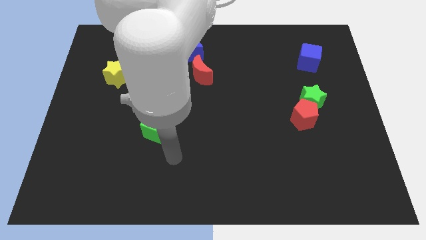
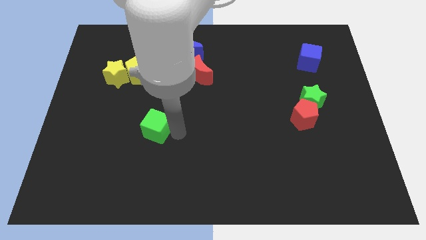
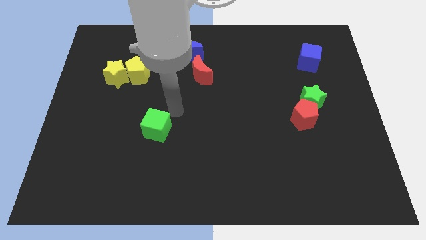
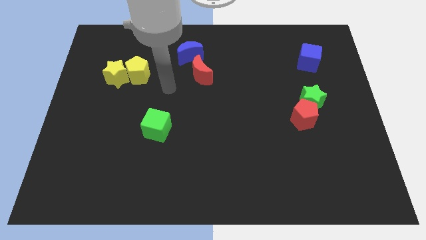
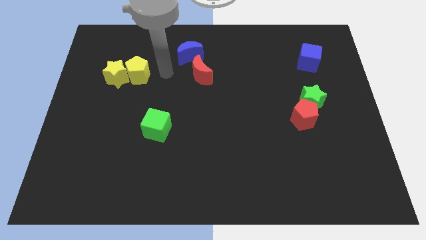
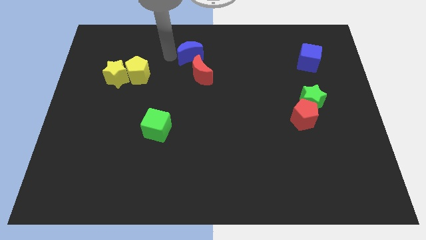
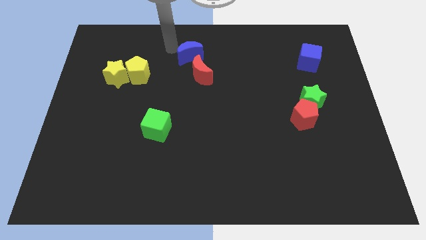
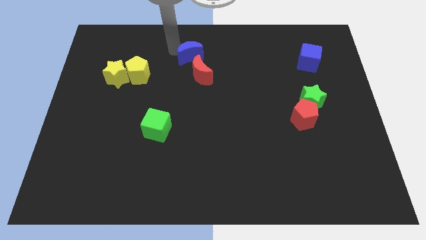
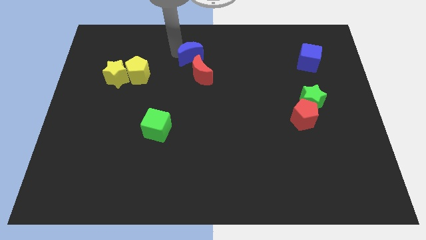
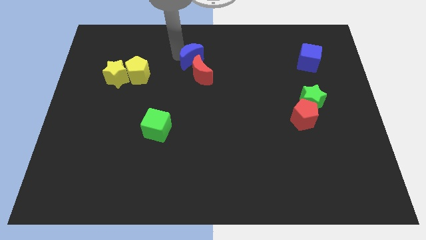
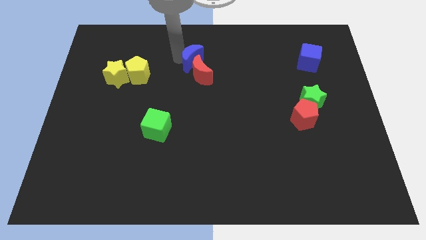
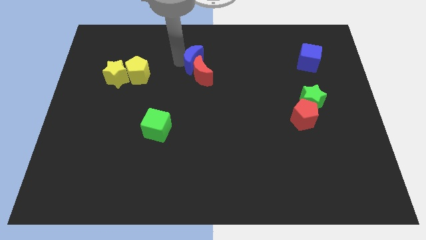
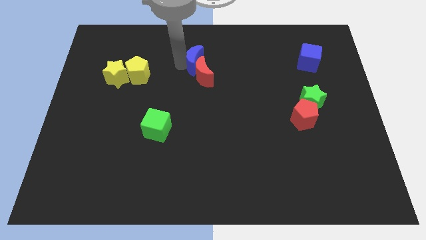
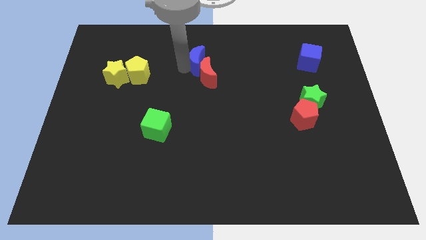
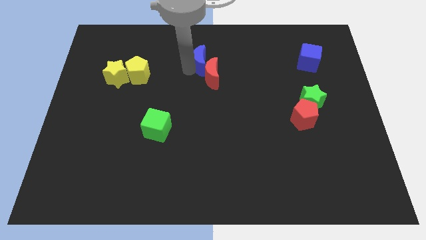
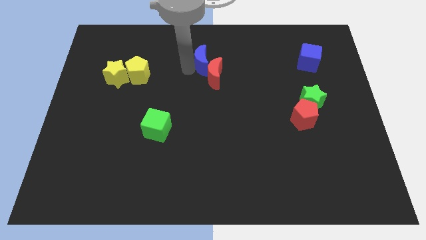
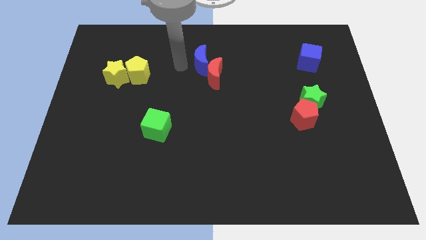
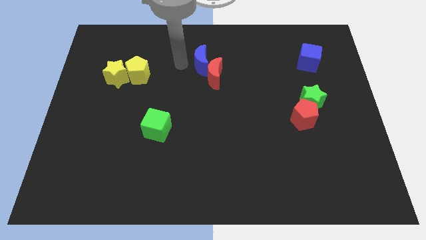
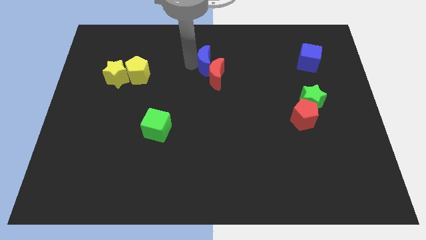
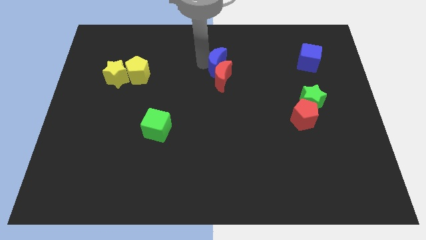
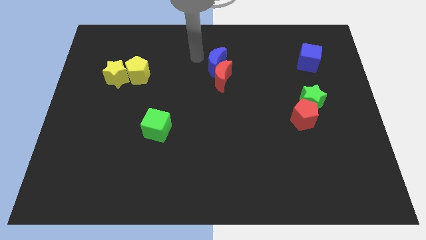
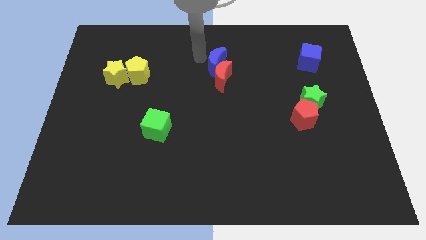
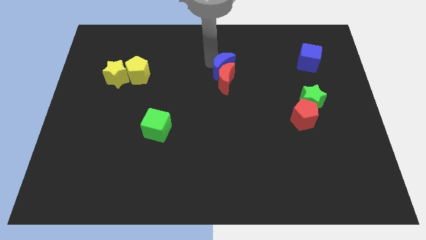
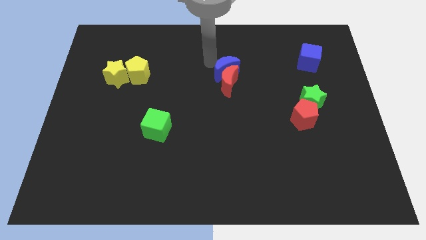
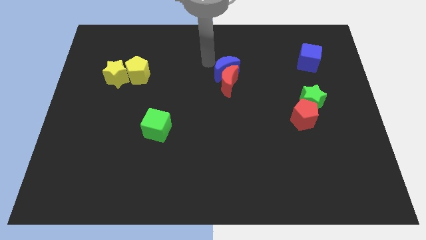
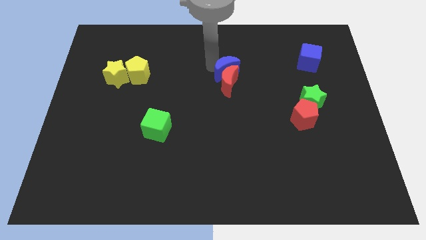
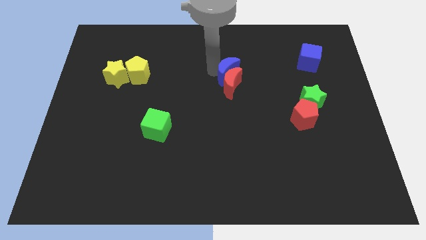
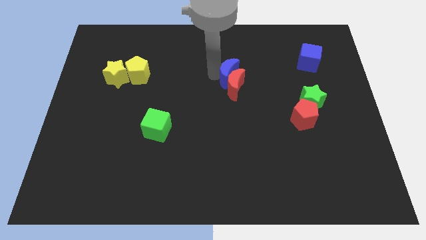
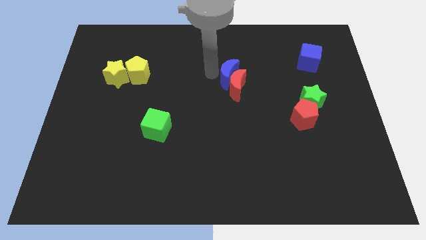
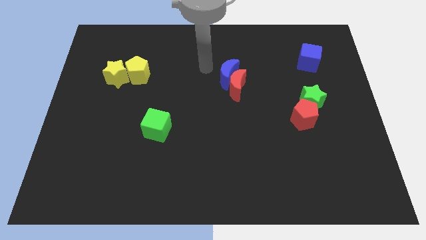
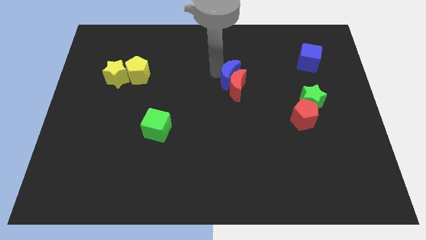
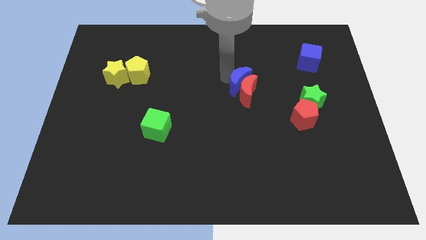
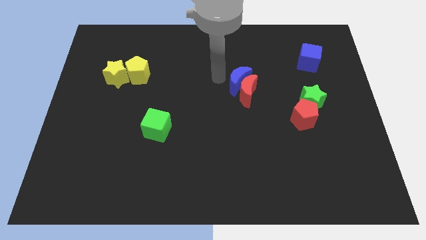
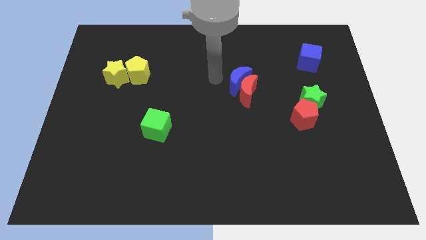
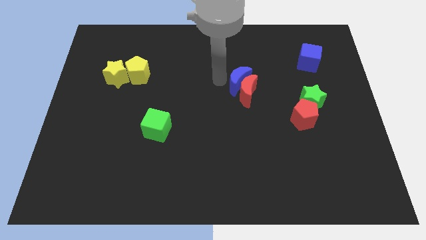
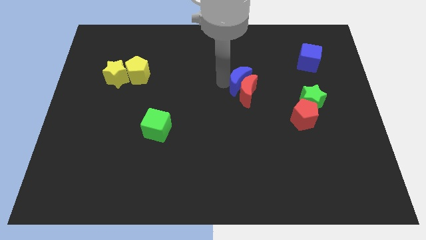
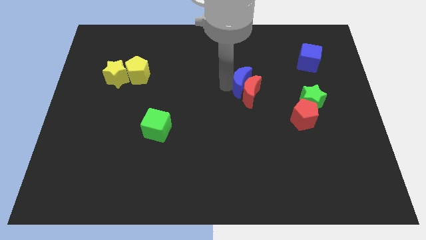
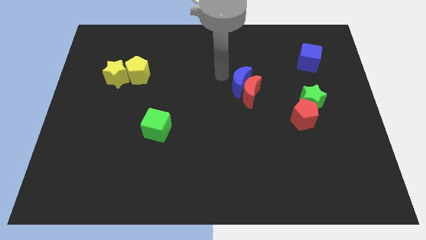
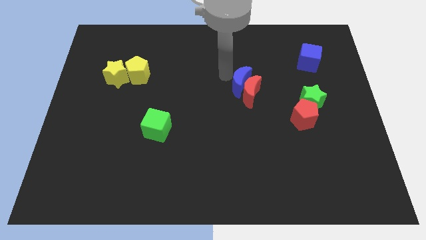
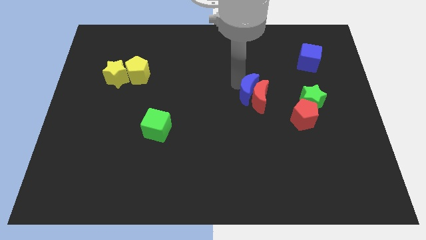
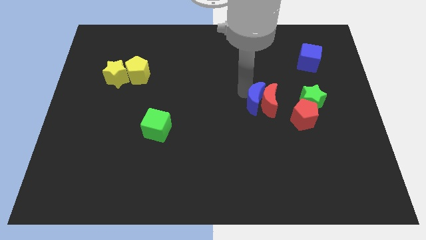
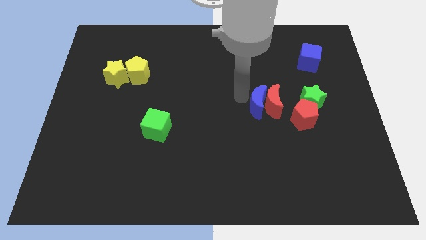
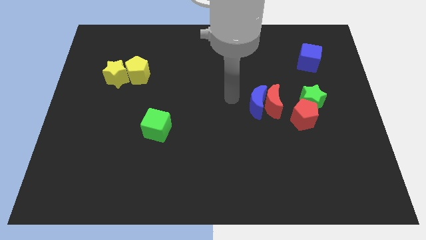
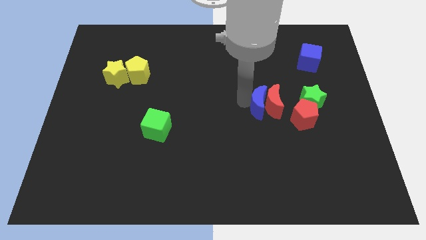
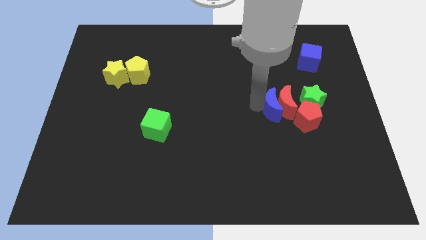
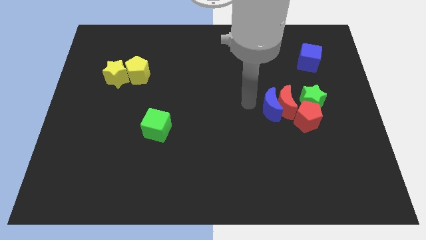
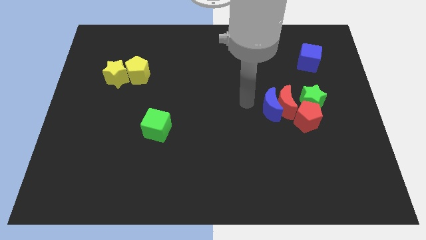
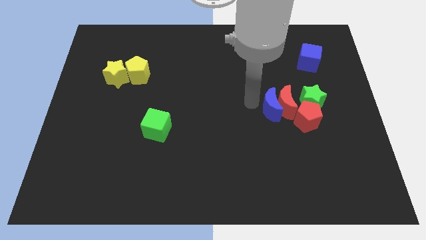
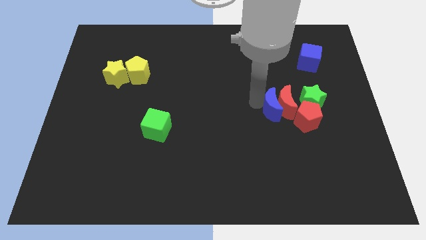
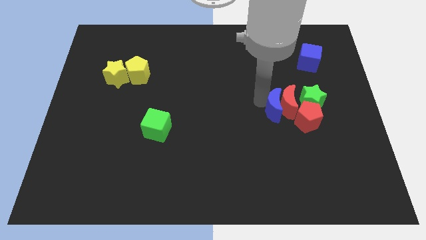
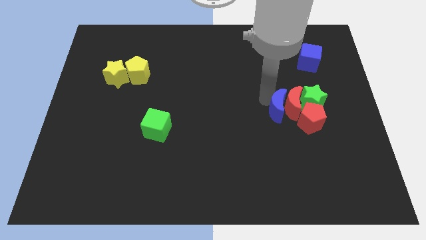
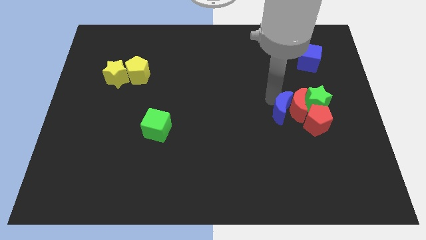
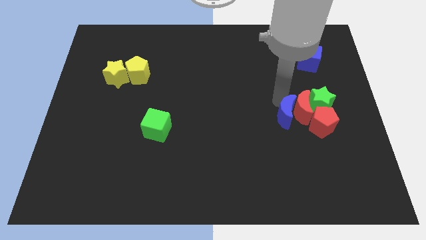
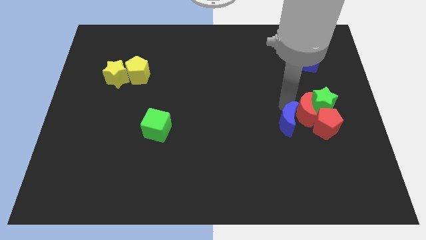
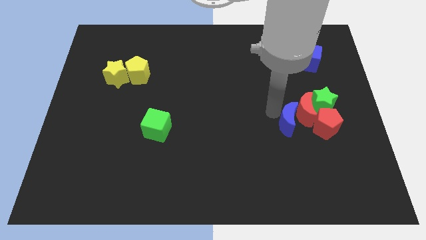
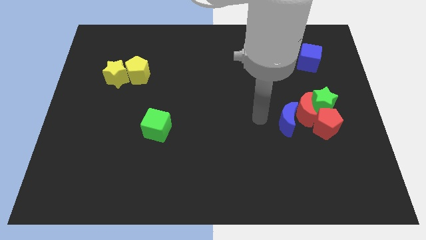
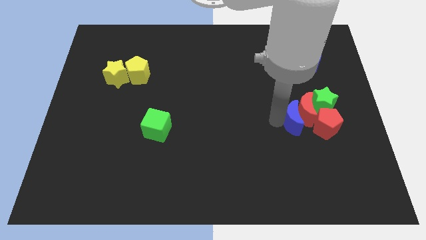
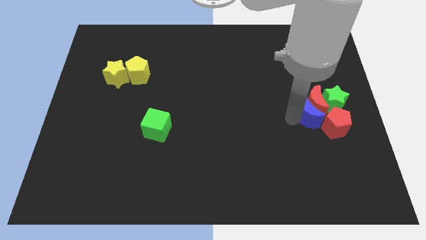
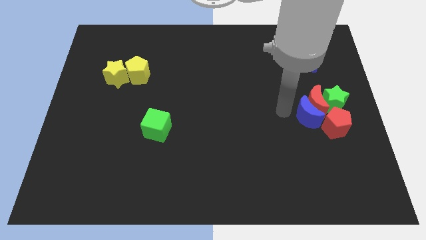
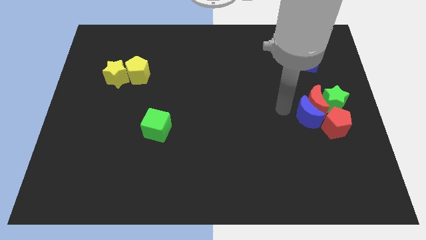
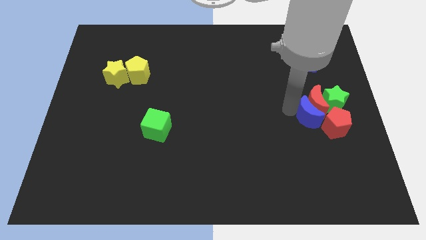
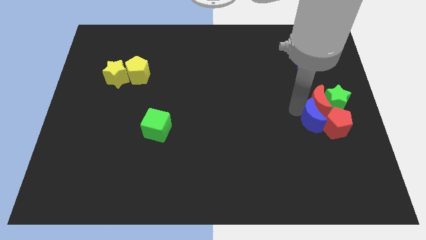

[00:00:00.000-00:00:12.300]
slide the blue moon close to the red pentagon

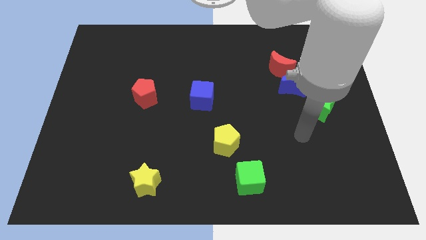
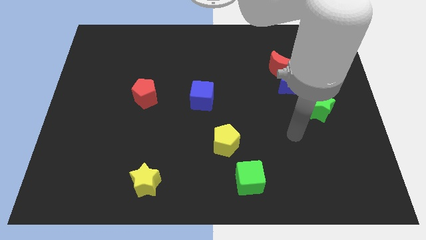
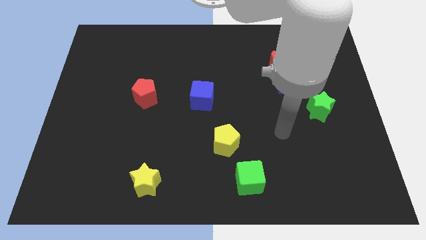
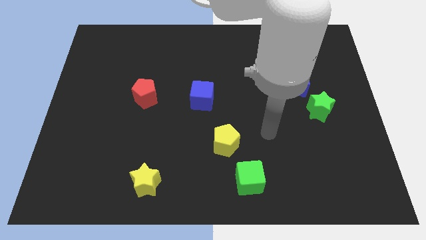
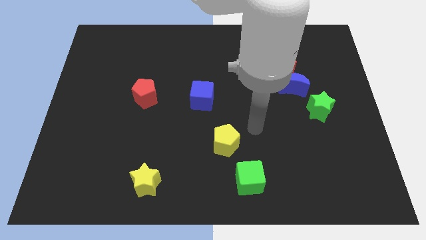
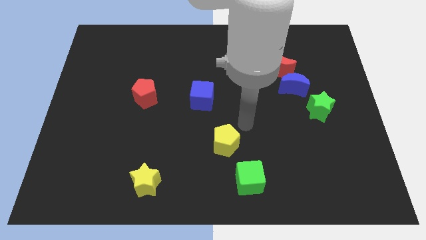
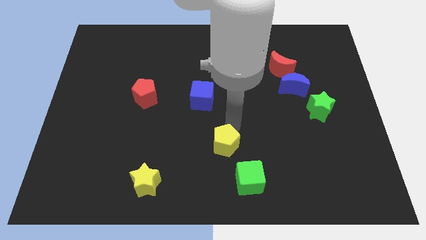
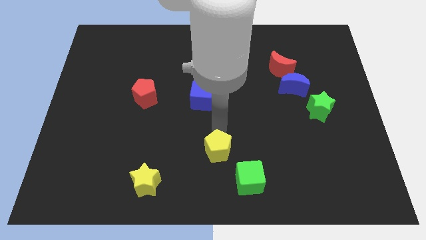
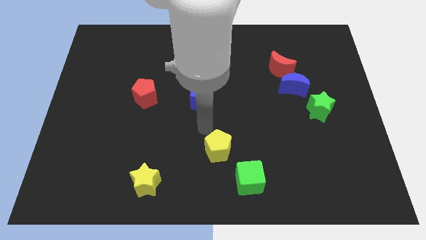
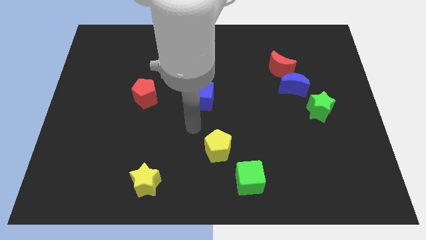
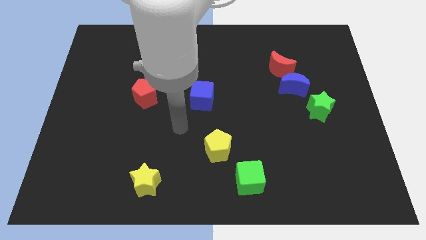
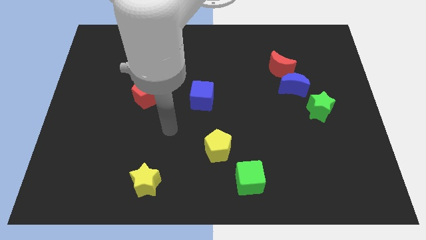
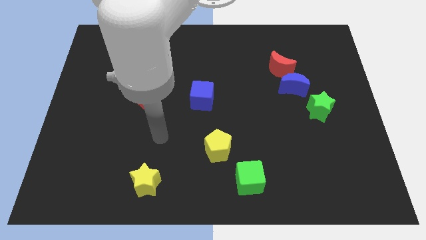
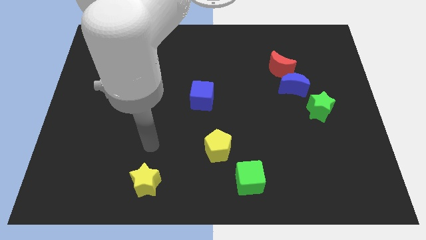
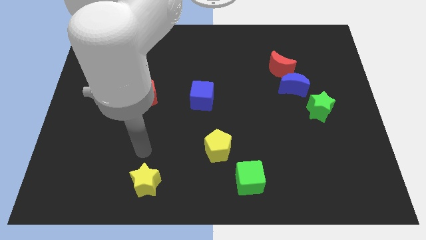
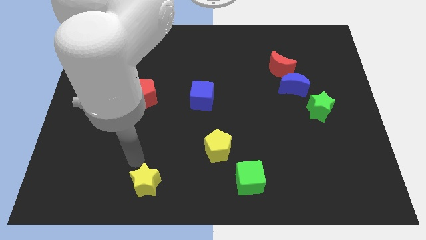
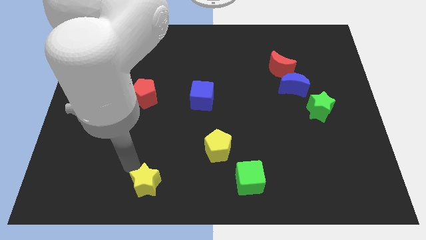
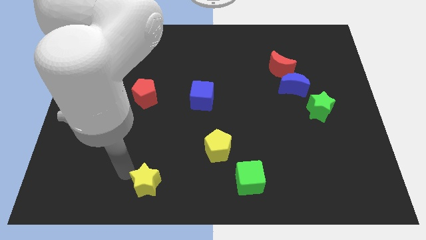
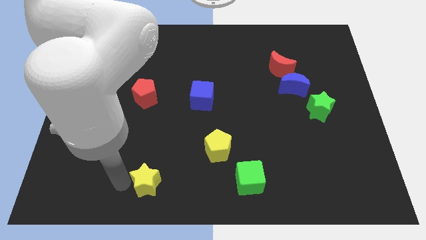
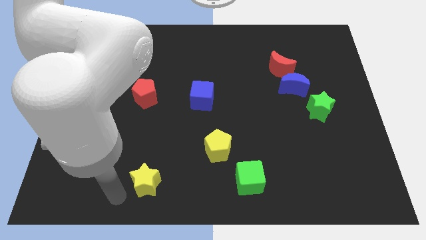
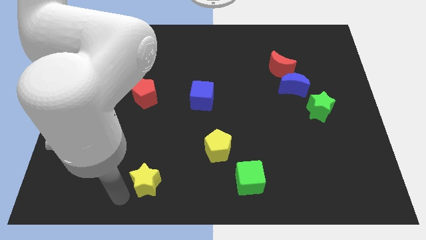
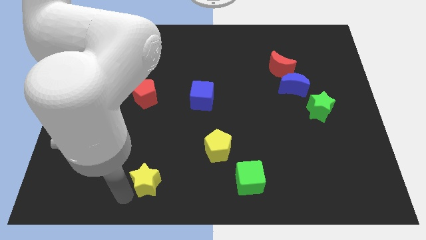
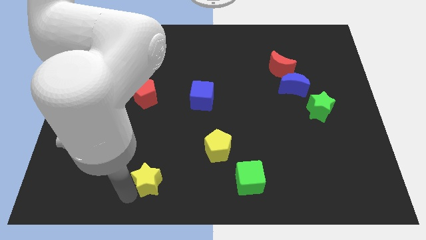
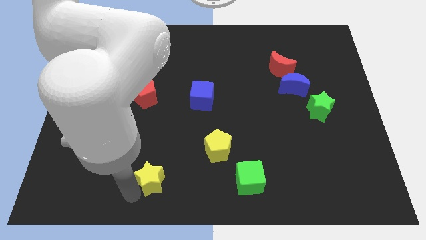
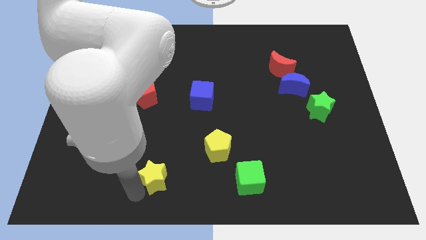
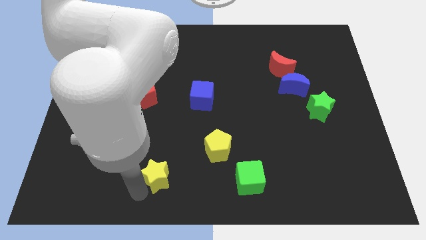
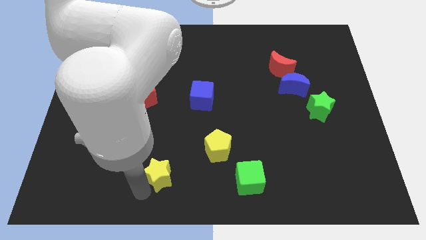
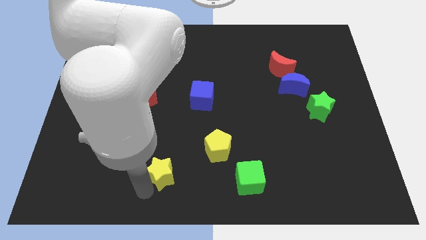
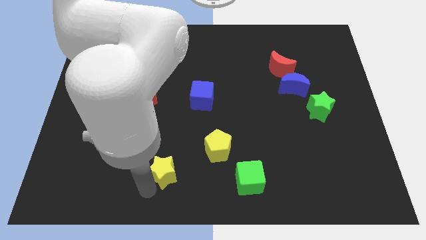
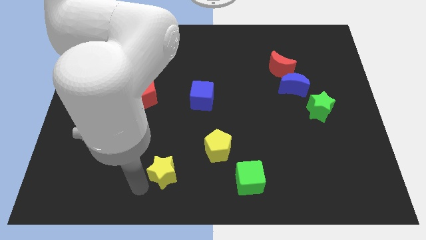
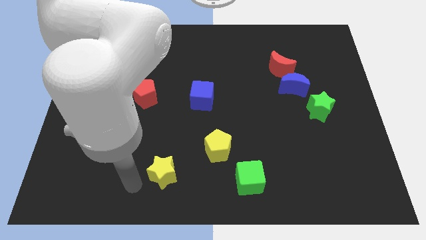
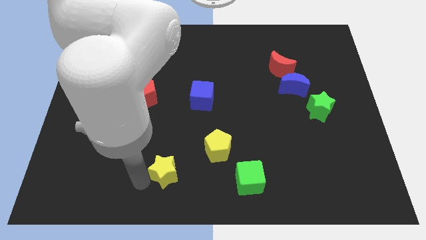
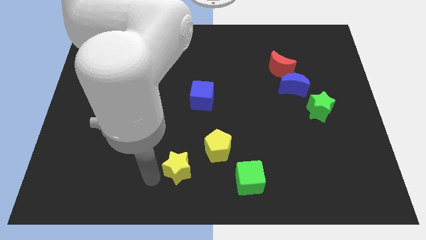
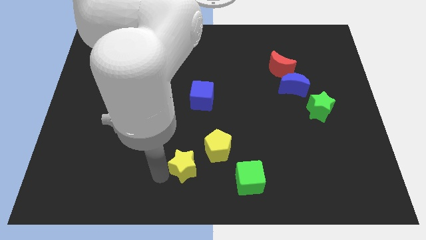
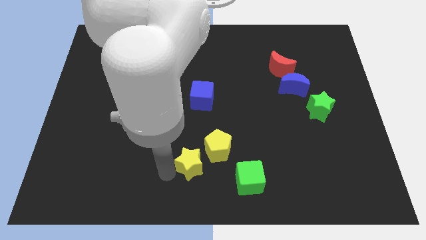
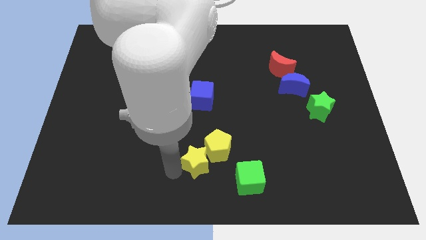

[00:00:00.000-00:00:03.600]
put the yellow star close to the yellow pentagon
